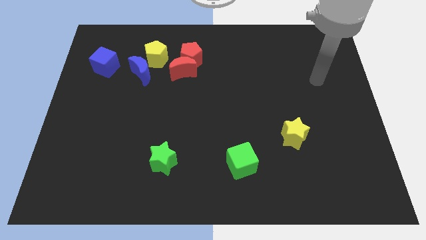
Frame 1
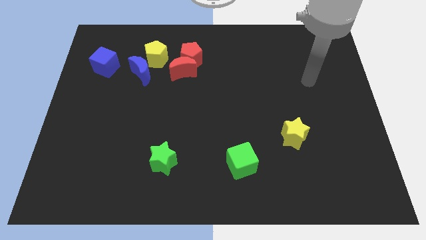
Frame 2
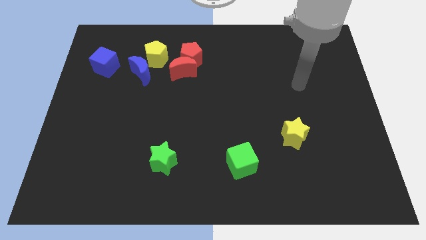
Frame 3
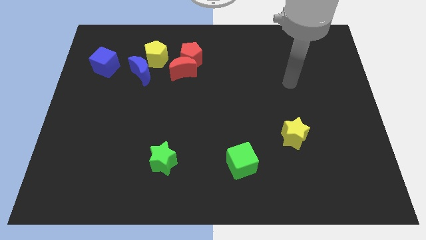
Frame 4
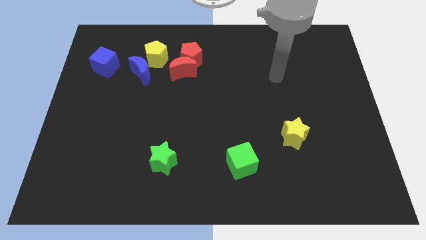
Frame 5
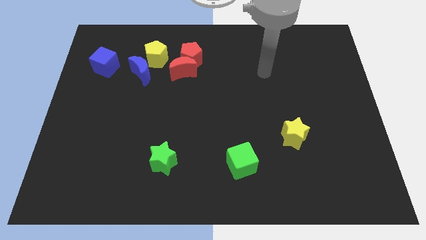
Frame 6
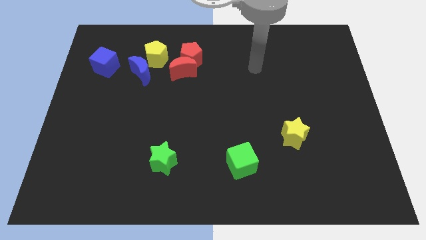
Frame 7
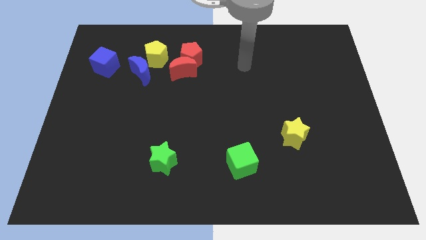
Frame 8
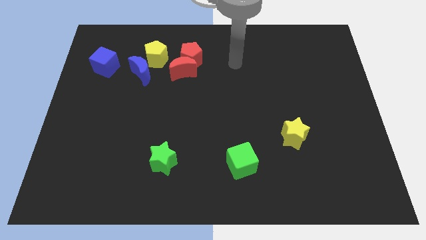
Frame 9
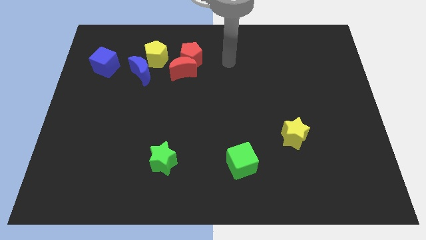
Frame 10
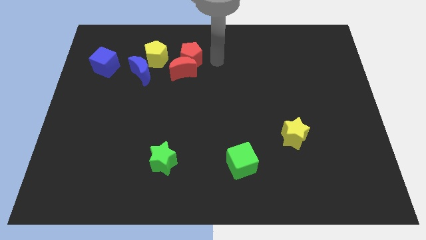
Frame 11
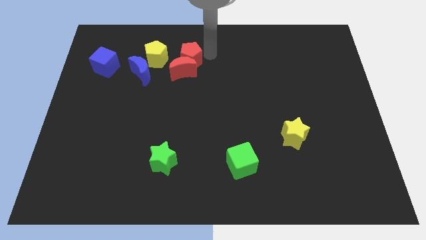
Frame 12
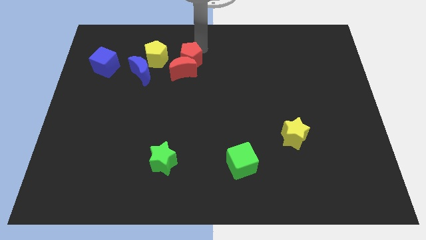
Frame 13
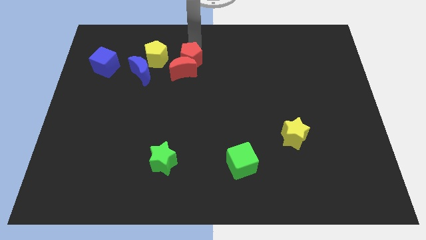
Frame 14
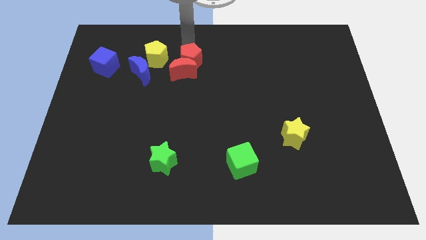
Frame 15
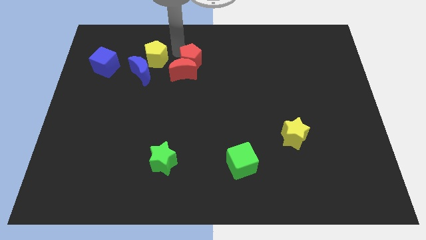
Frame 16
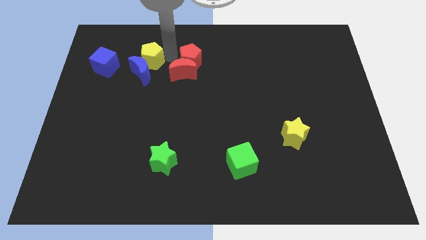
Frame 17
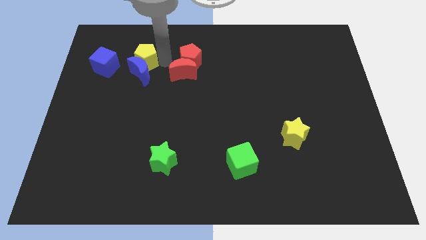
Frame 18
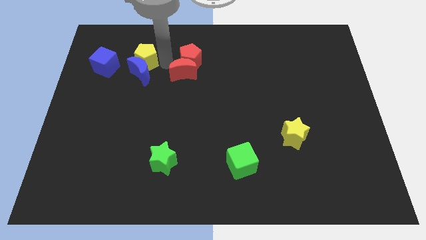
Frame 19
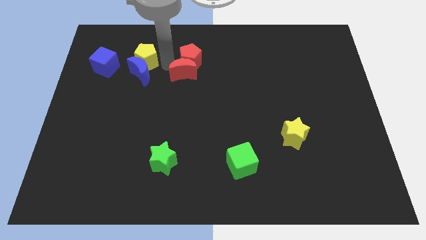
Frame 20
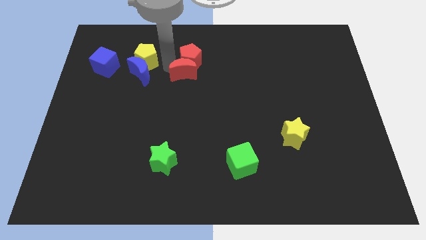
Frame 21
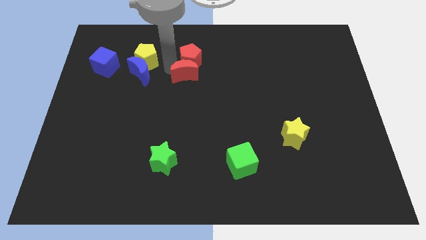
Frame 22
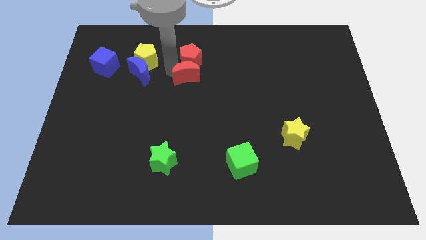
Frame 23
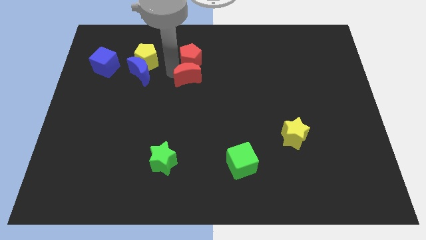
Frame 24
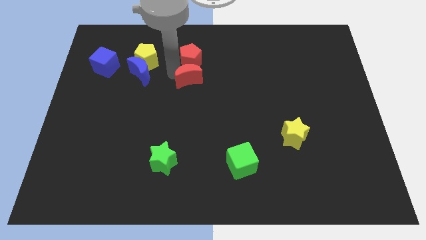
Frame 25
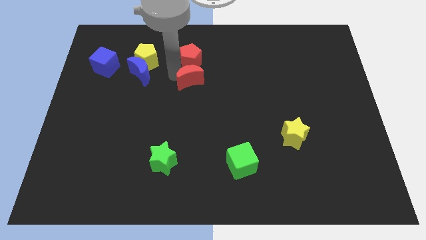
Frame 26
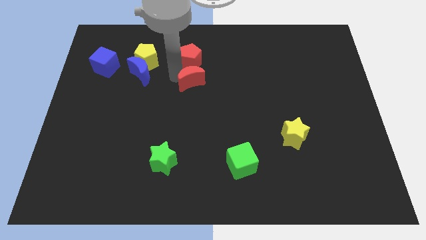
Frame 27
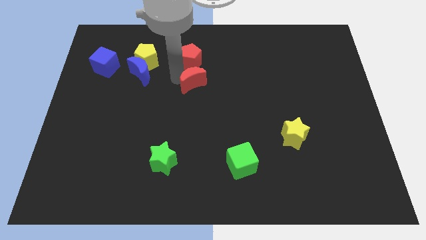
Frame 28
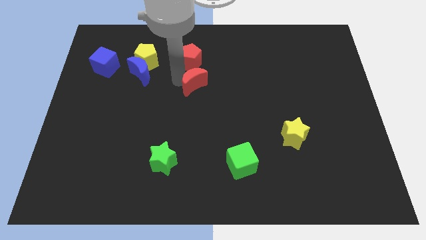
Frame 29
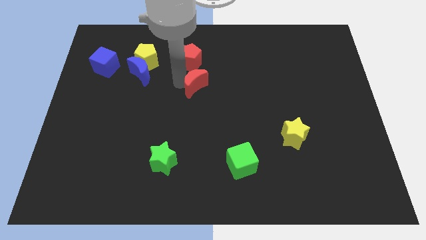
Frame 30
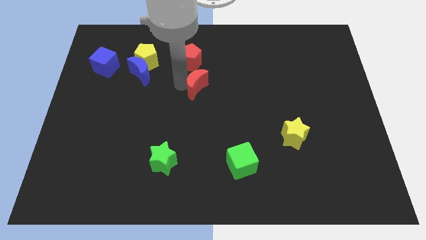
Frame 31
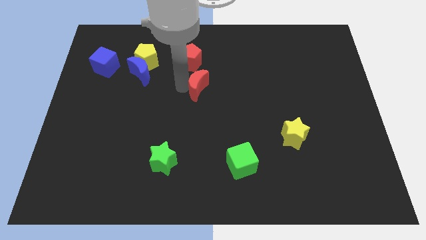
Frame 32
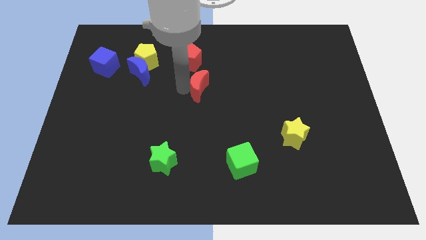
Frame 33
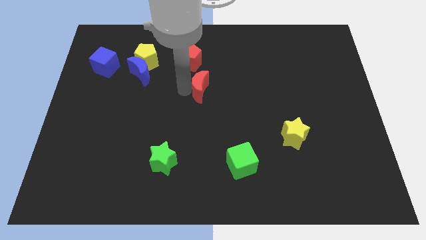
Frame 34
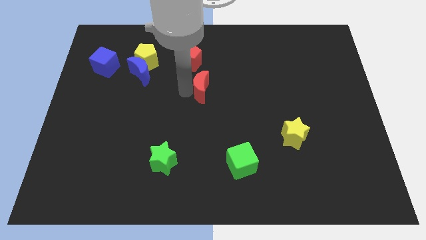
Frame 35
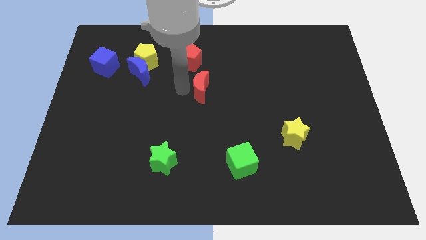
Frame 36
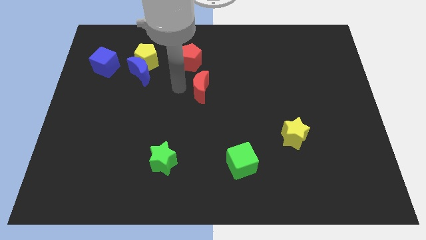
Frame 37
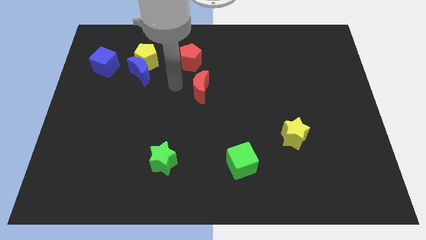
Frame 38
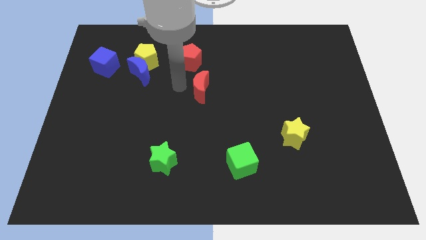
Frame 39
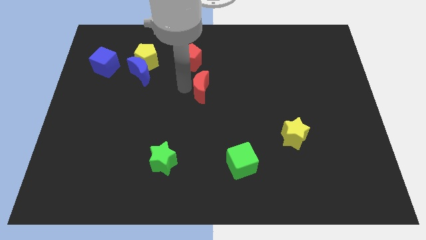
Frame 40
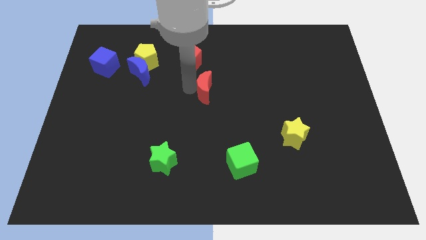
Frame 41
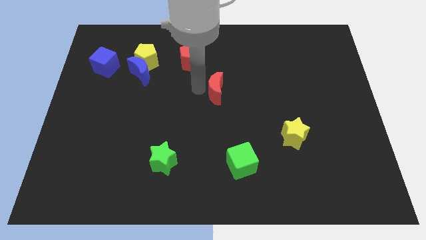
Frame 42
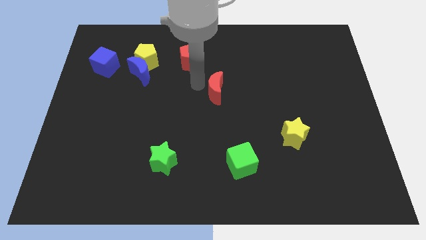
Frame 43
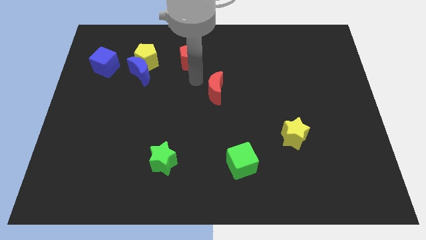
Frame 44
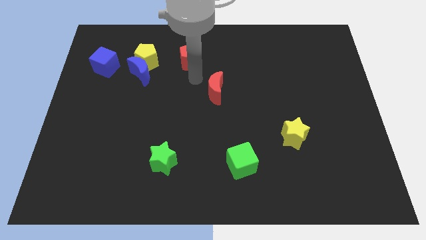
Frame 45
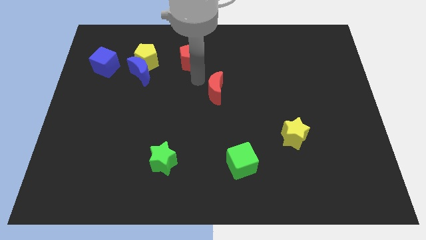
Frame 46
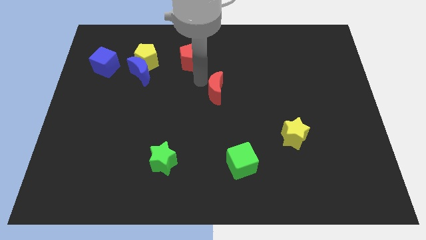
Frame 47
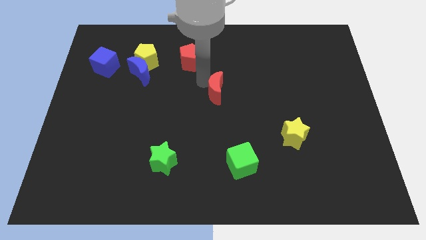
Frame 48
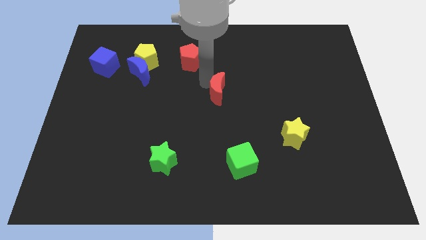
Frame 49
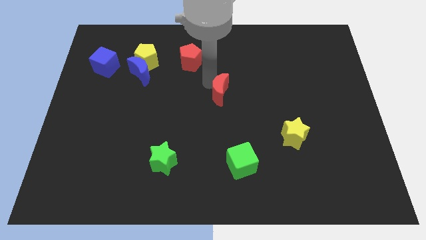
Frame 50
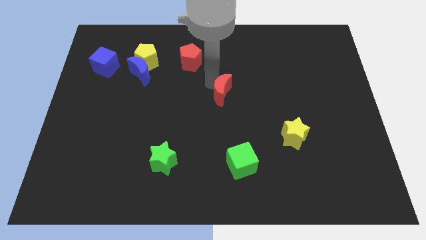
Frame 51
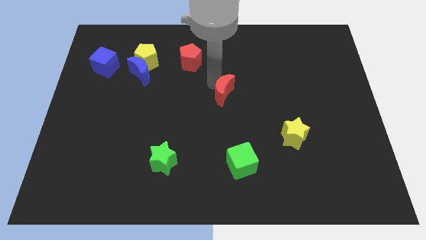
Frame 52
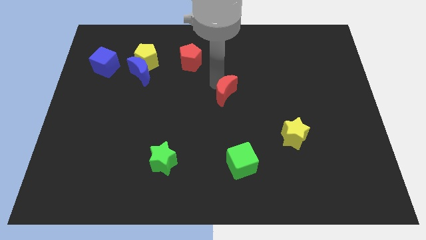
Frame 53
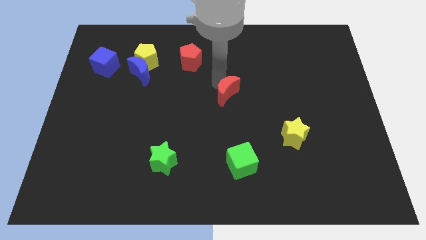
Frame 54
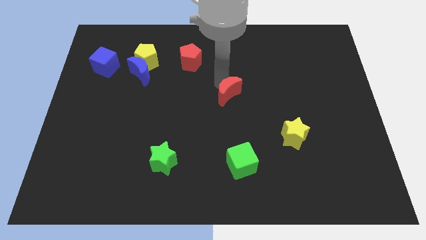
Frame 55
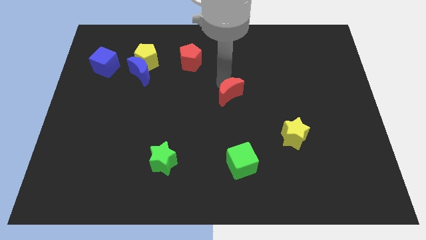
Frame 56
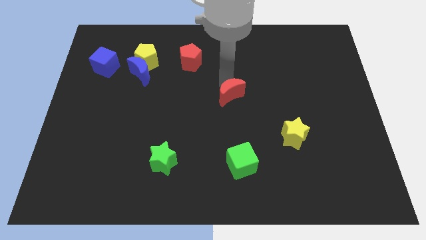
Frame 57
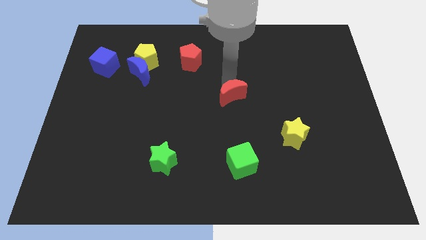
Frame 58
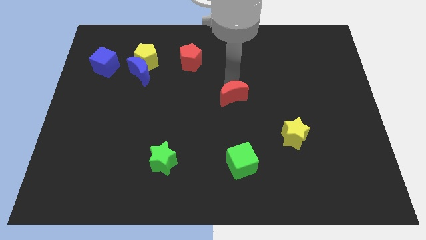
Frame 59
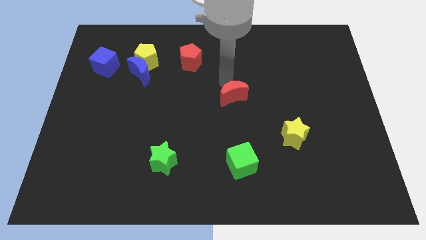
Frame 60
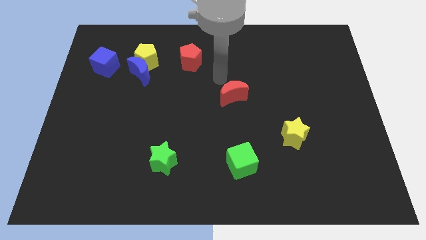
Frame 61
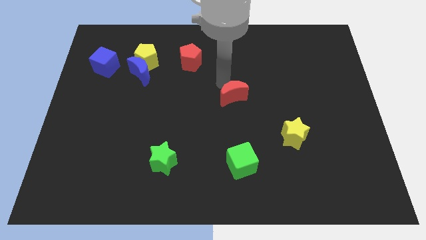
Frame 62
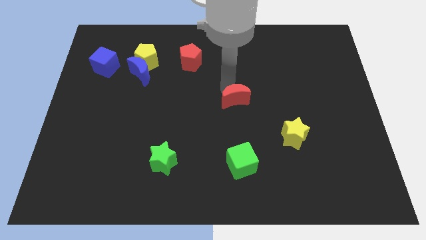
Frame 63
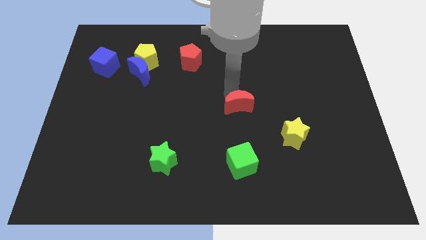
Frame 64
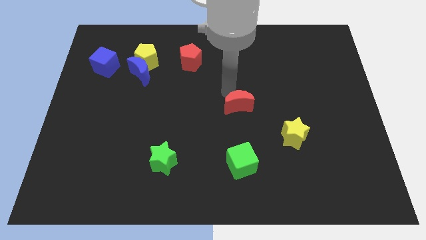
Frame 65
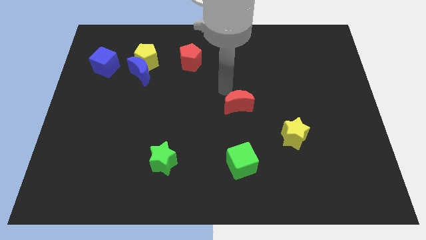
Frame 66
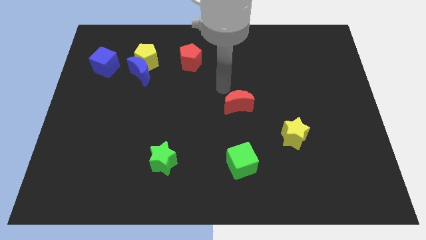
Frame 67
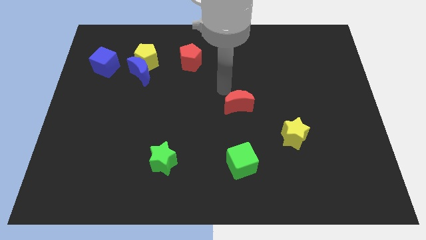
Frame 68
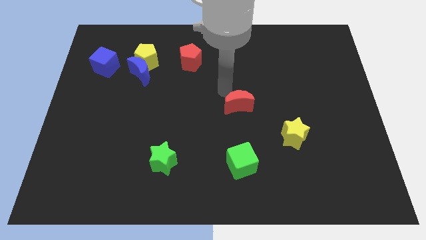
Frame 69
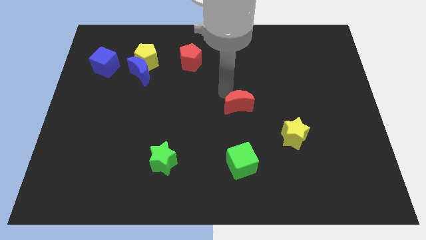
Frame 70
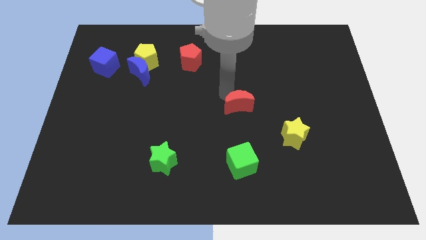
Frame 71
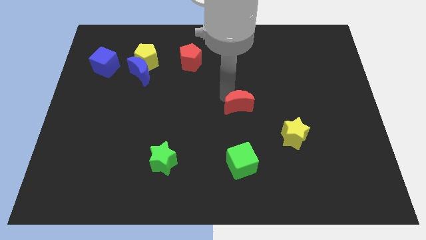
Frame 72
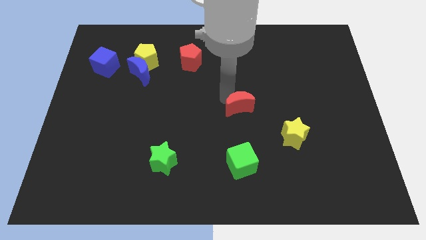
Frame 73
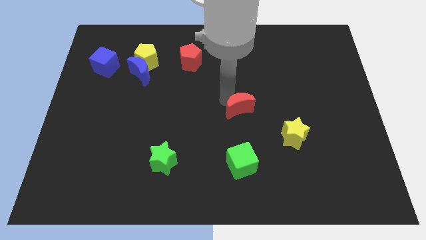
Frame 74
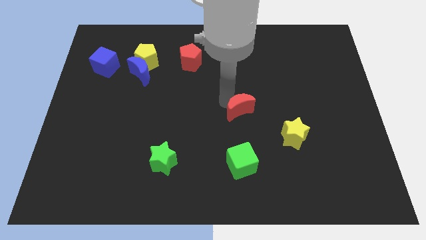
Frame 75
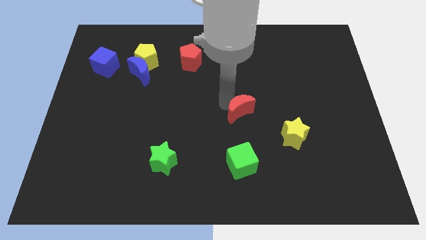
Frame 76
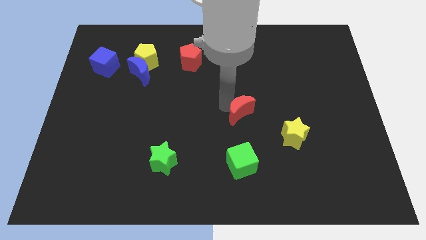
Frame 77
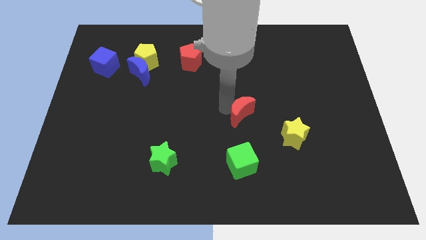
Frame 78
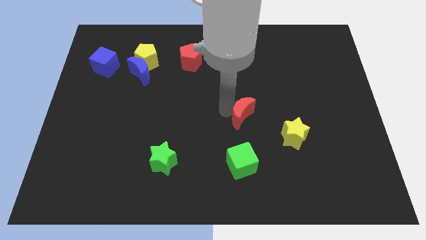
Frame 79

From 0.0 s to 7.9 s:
slide the red moon diagonally down and right
